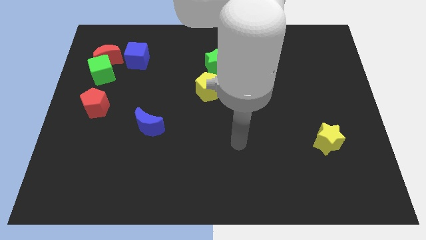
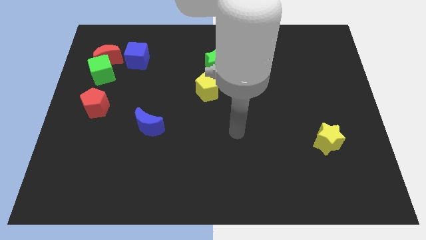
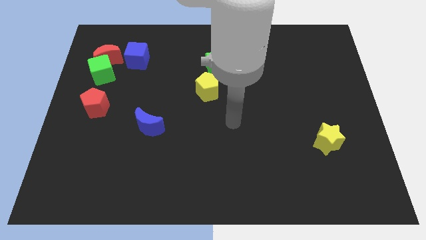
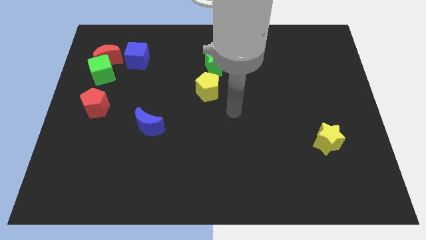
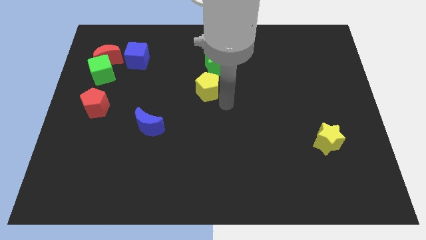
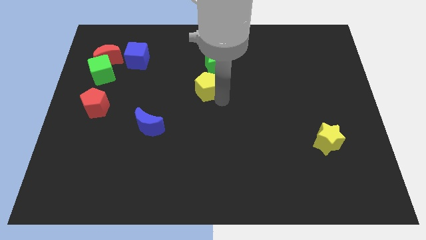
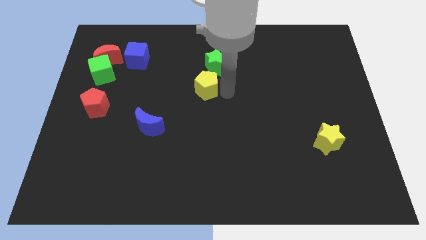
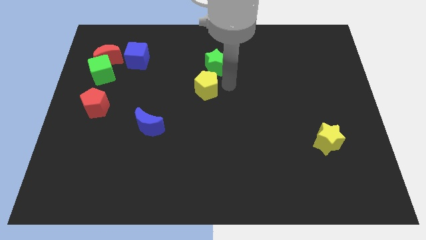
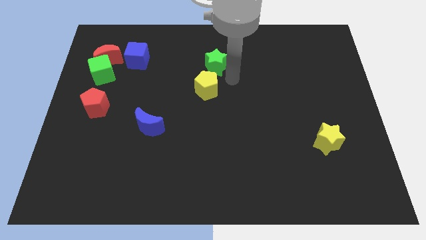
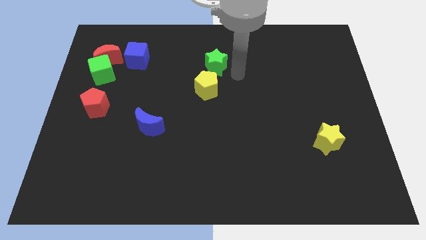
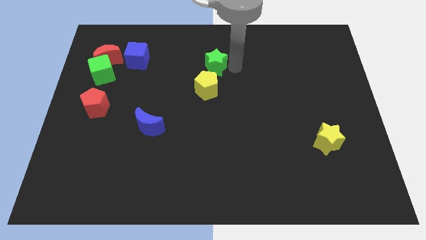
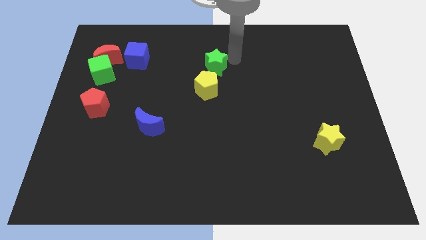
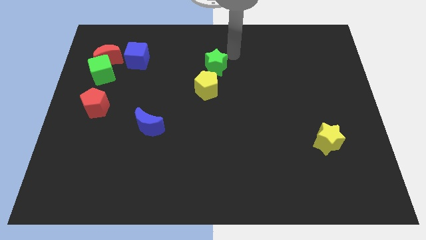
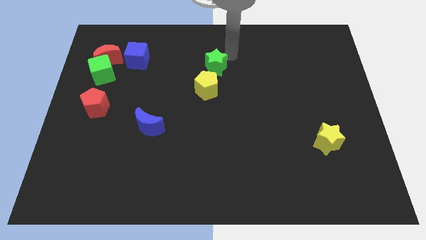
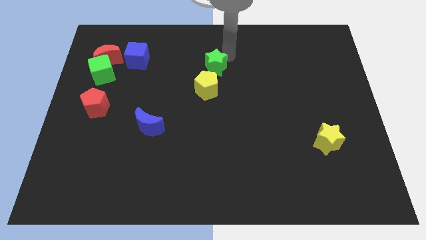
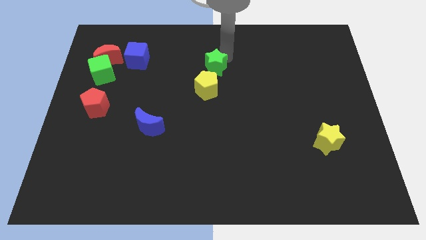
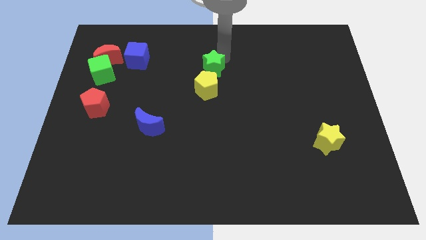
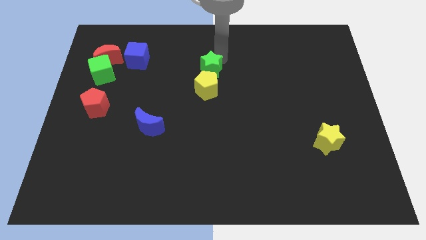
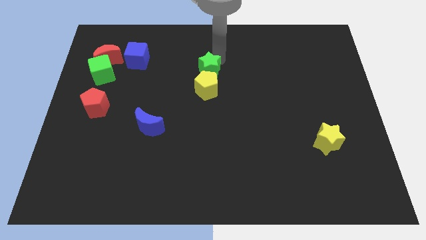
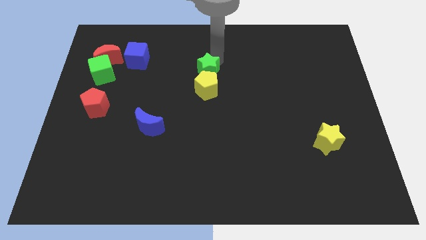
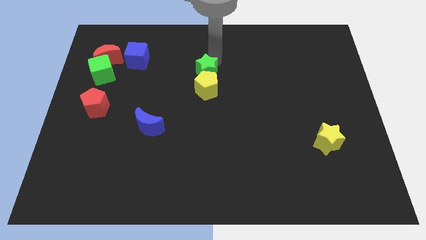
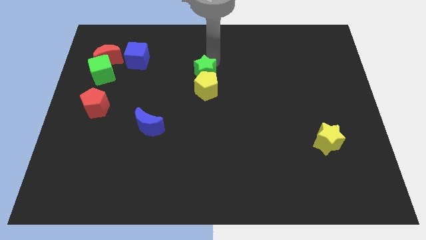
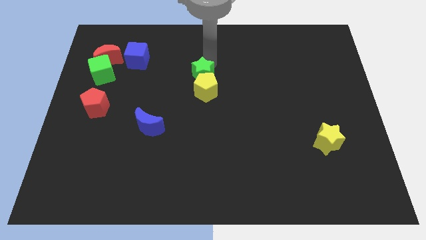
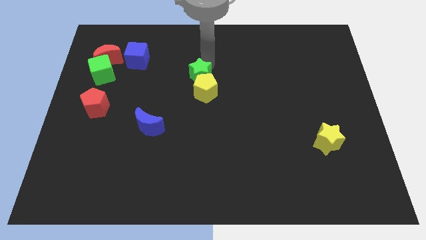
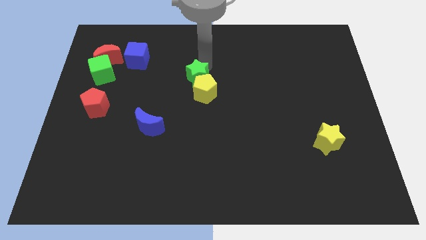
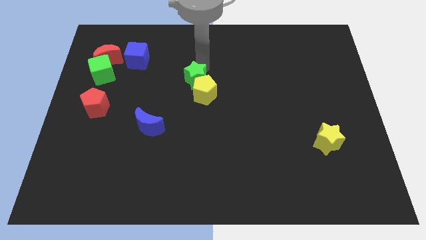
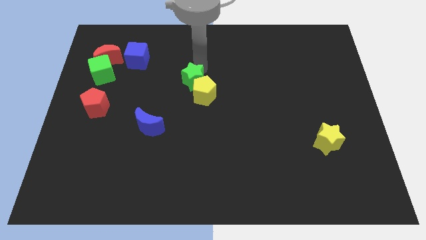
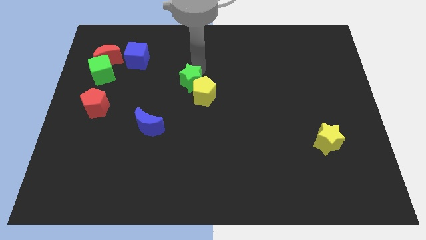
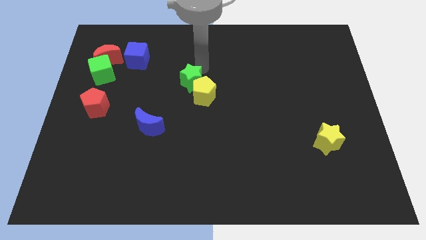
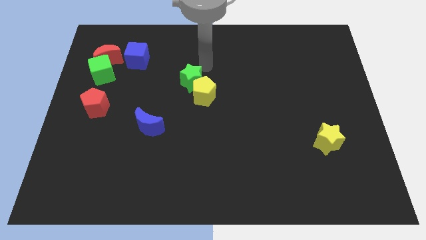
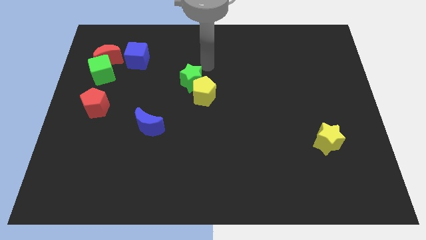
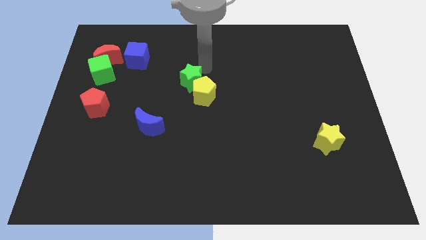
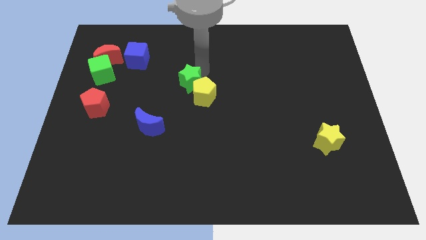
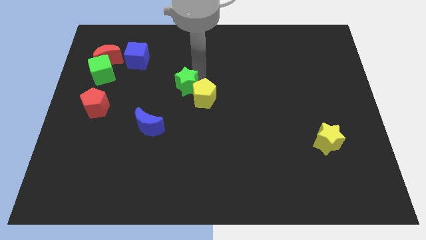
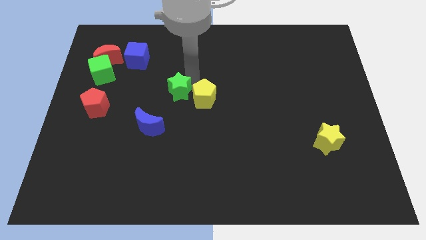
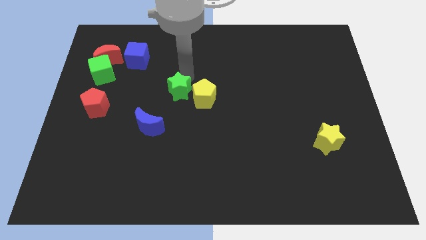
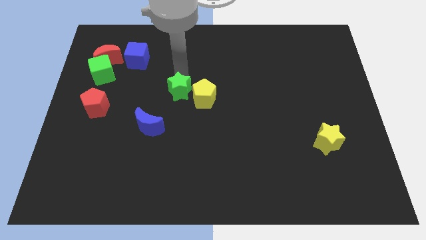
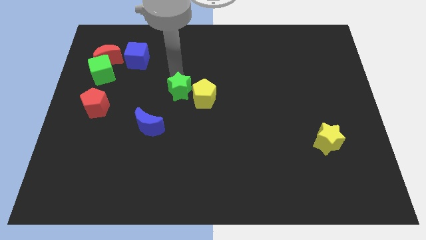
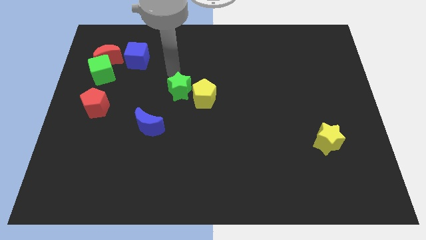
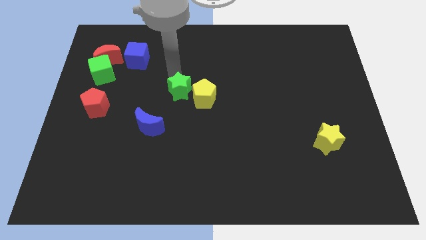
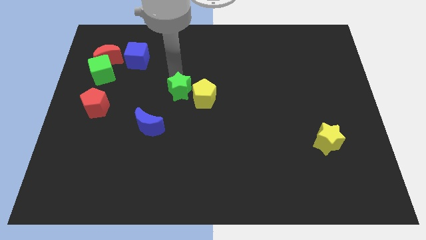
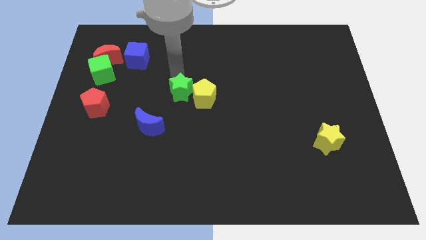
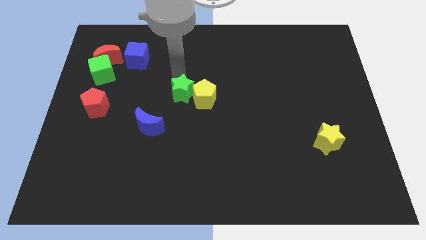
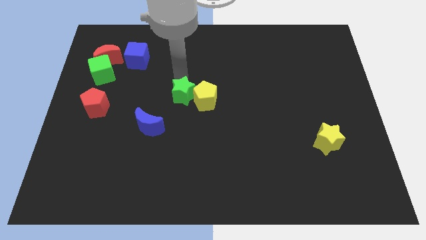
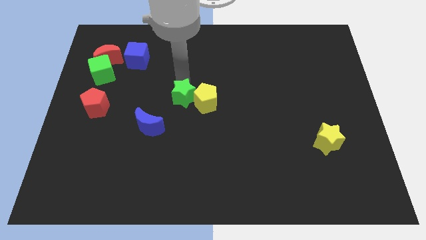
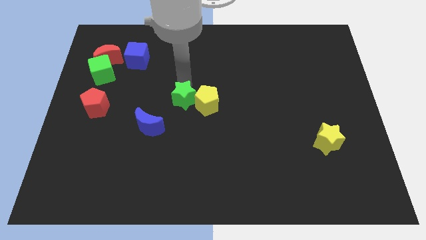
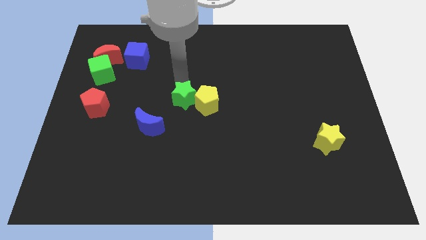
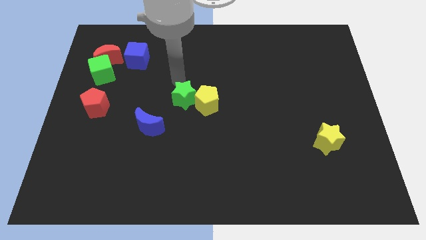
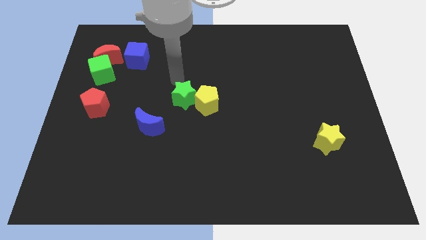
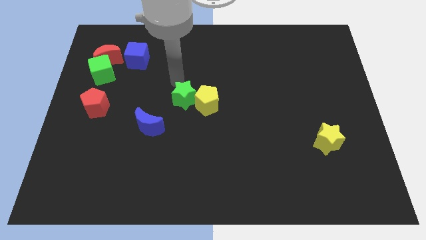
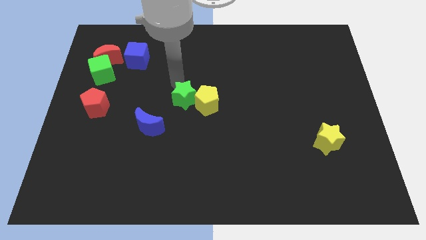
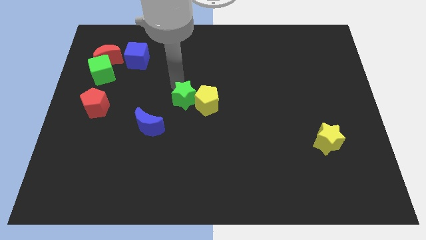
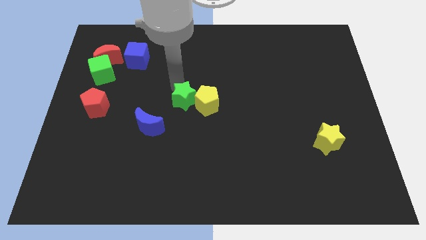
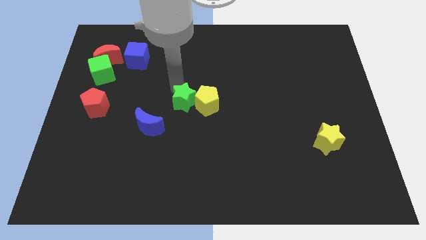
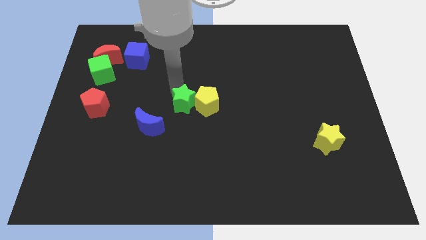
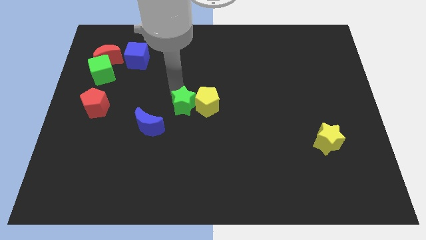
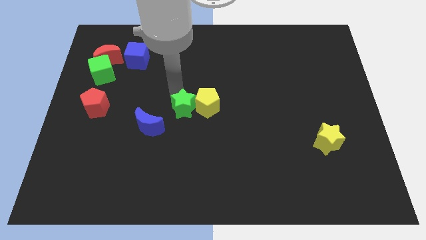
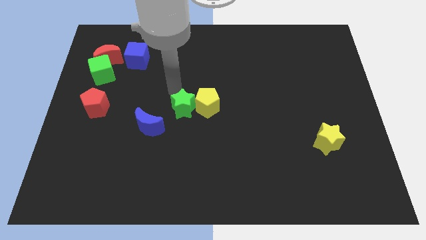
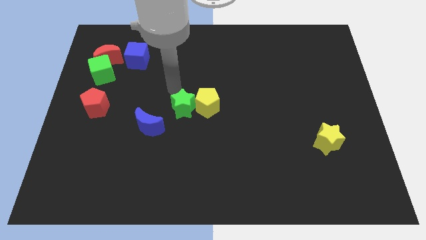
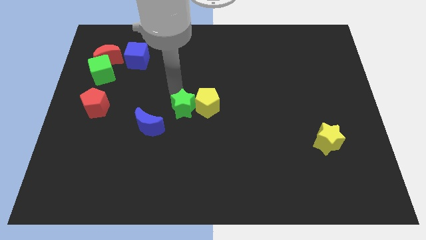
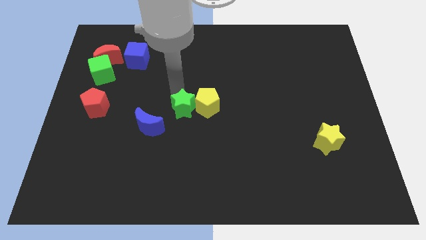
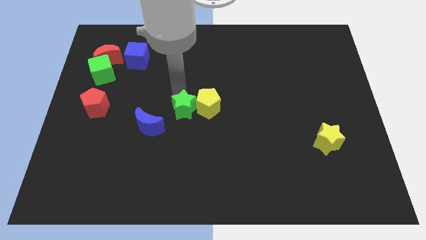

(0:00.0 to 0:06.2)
push the green star right of the blue moon

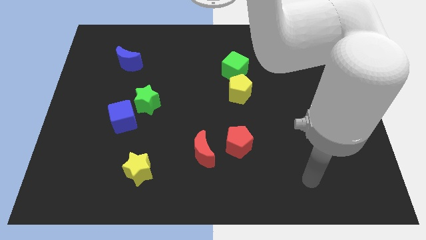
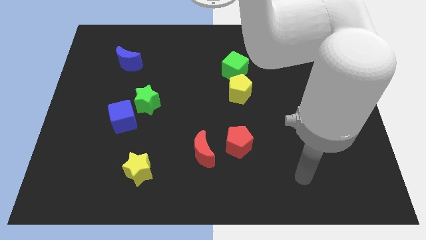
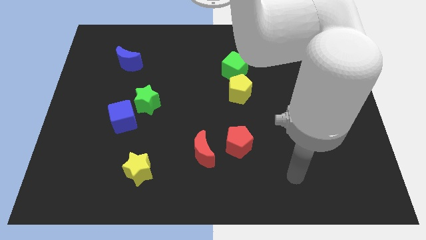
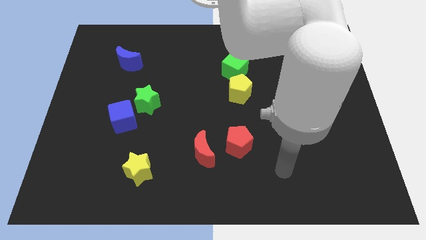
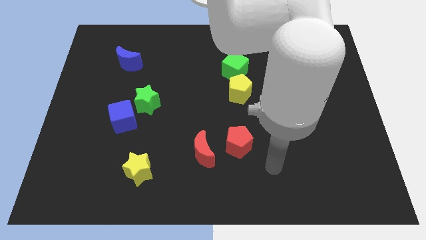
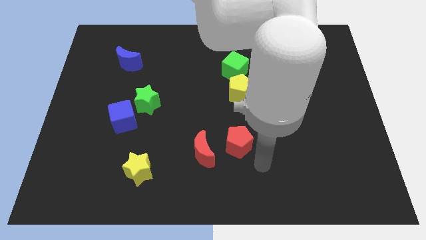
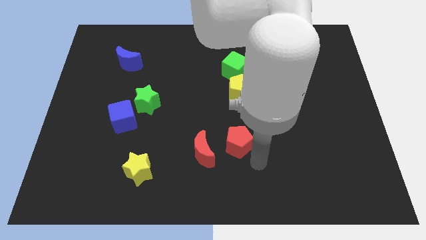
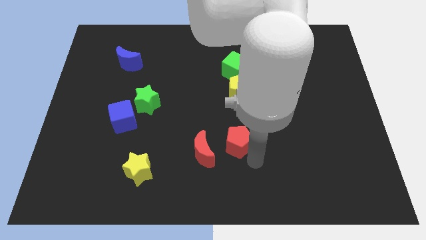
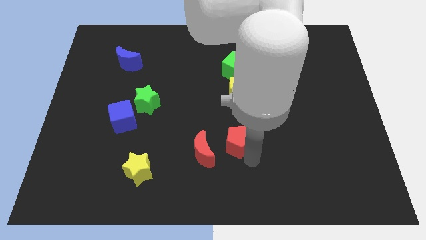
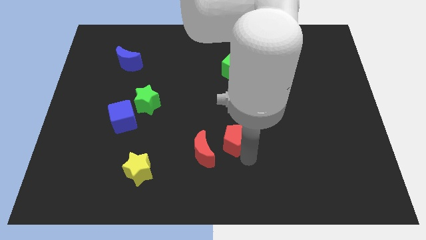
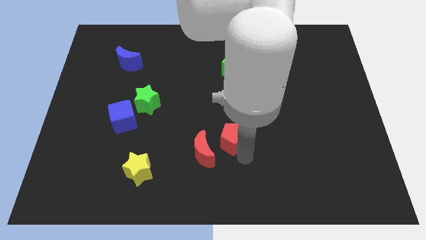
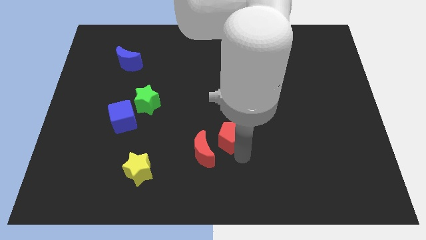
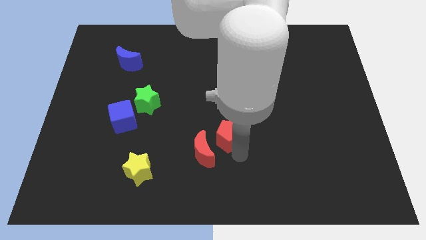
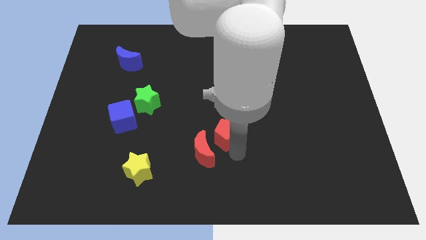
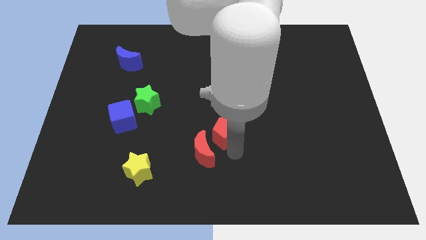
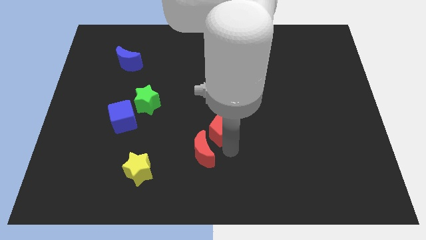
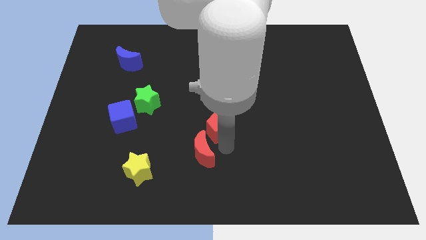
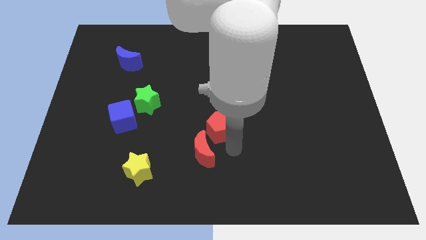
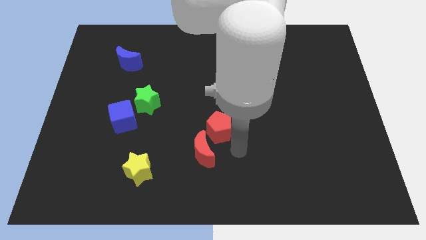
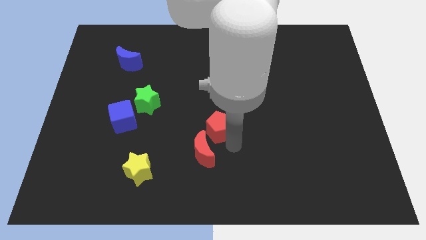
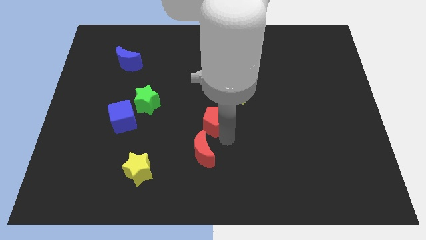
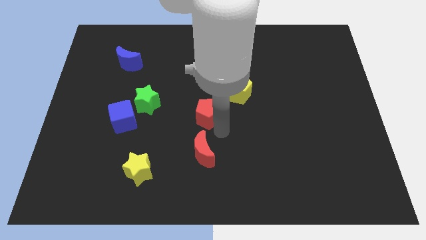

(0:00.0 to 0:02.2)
put the red pentagon right of the green star
